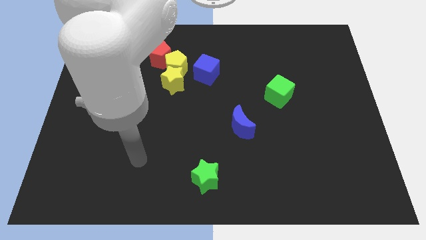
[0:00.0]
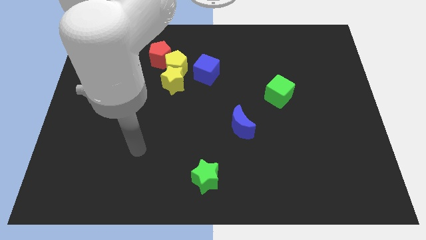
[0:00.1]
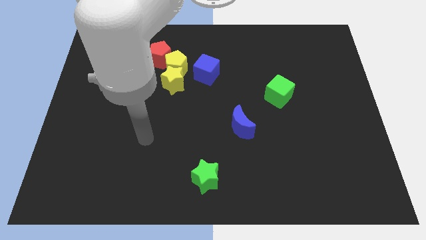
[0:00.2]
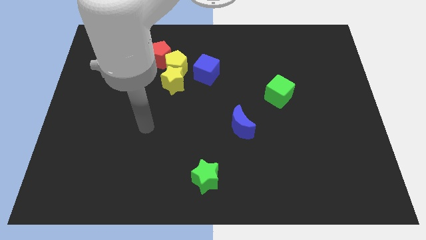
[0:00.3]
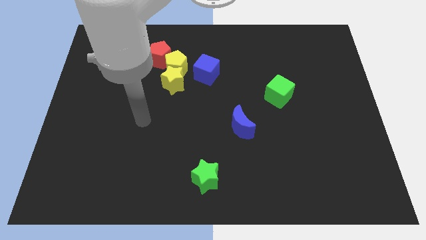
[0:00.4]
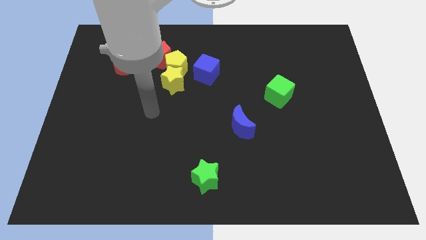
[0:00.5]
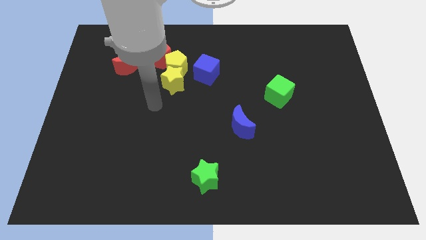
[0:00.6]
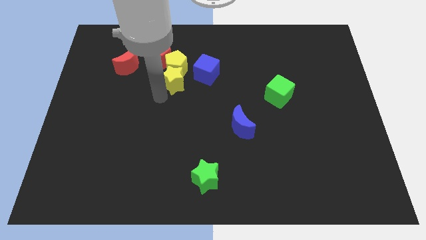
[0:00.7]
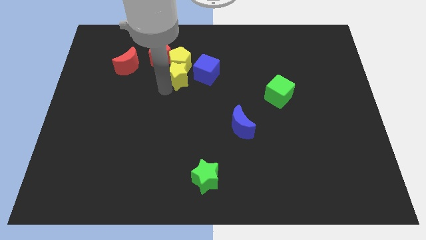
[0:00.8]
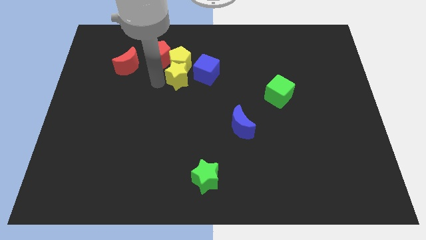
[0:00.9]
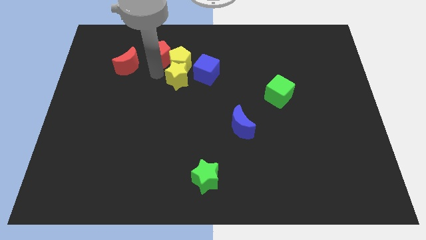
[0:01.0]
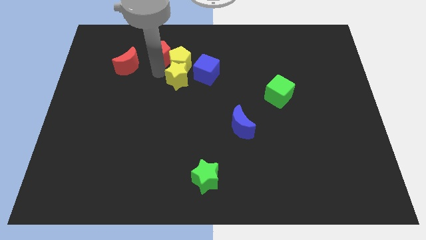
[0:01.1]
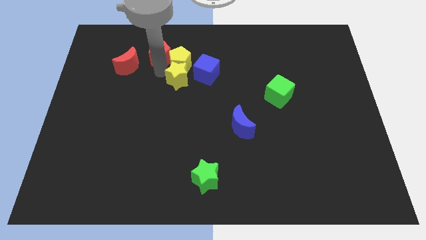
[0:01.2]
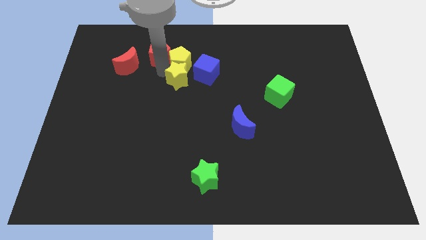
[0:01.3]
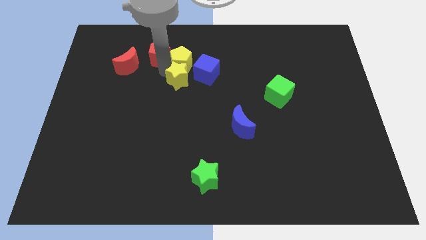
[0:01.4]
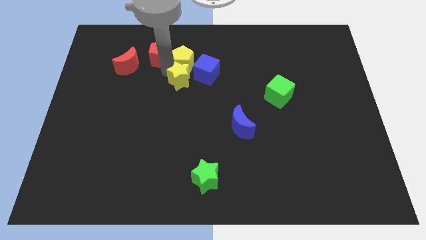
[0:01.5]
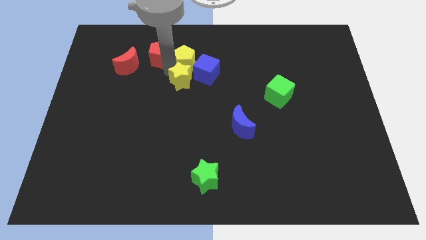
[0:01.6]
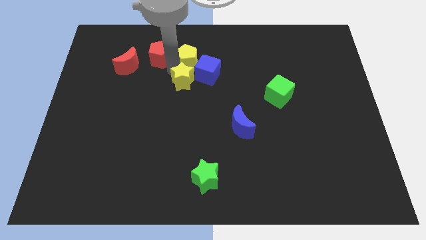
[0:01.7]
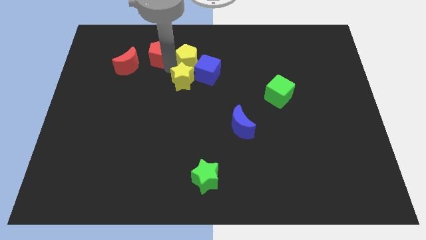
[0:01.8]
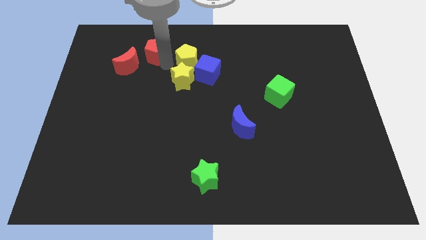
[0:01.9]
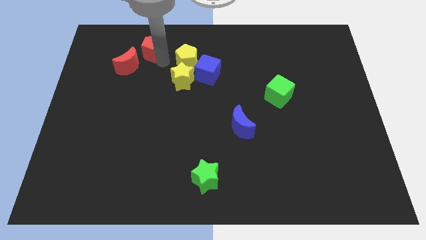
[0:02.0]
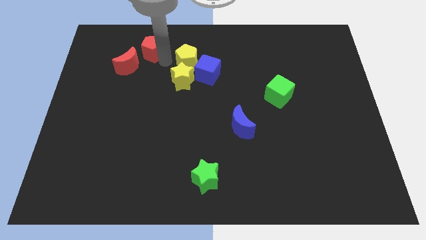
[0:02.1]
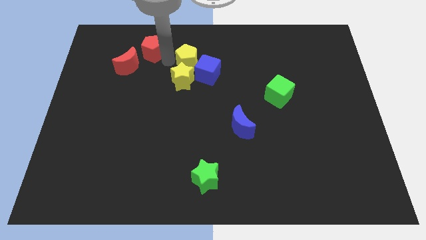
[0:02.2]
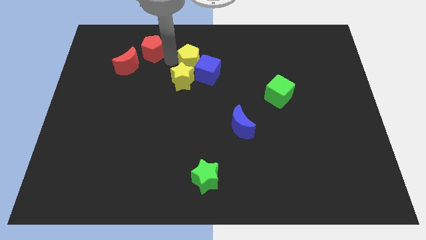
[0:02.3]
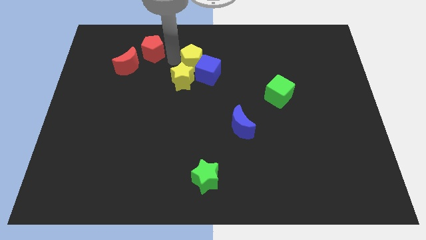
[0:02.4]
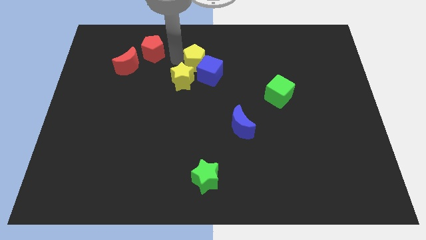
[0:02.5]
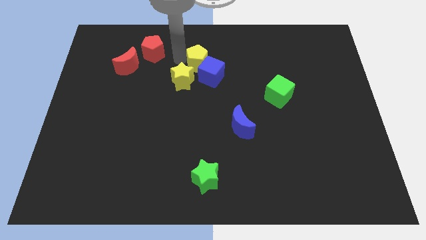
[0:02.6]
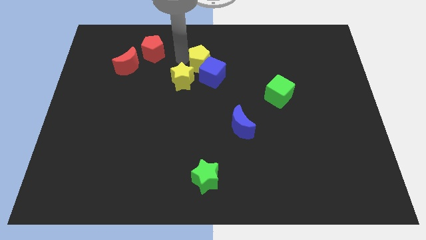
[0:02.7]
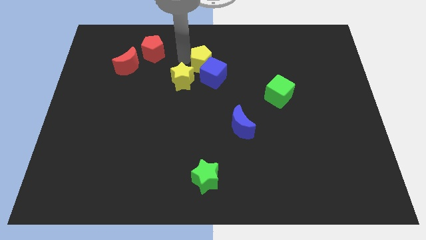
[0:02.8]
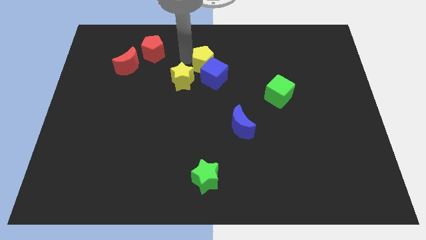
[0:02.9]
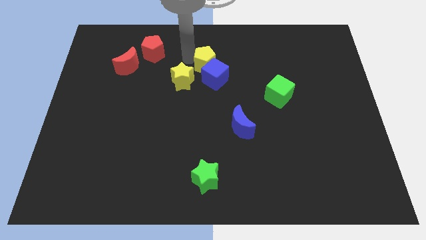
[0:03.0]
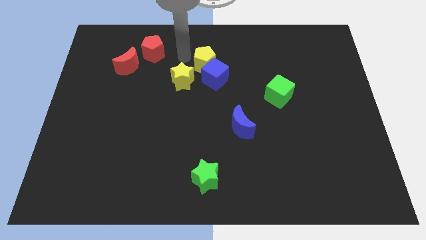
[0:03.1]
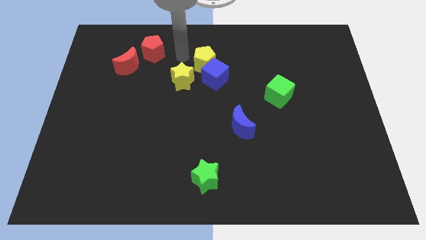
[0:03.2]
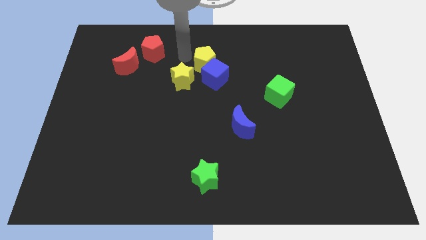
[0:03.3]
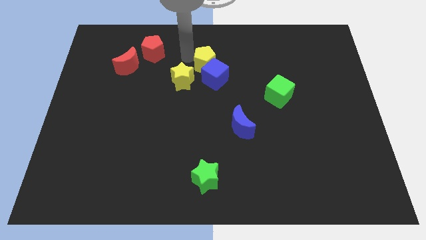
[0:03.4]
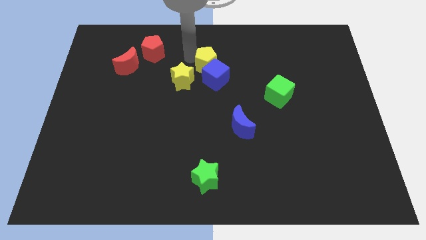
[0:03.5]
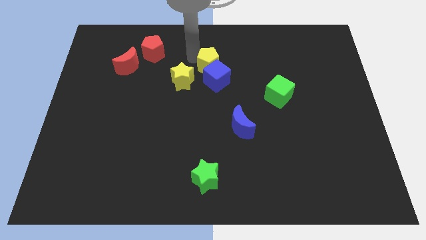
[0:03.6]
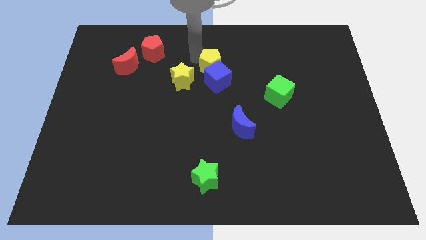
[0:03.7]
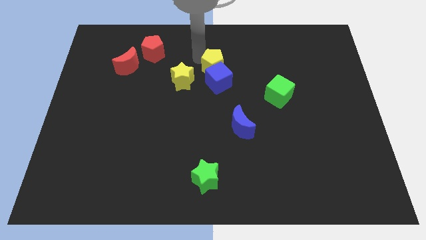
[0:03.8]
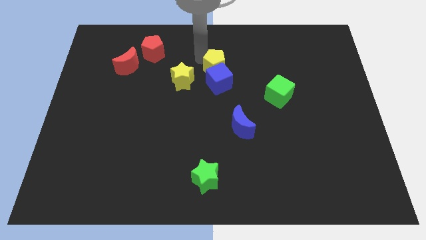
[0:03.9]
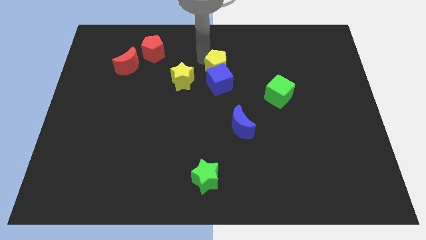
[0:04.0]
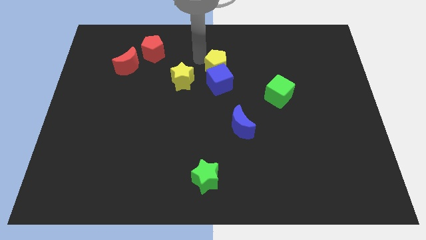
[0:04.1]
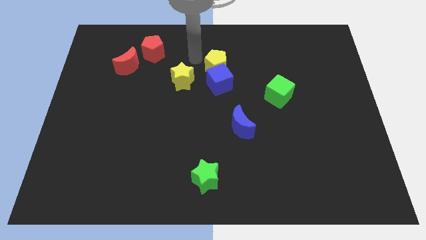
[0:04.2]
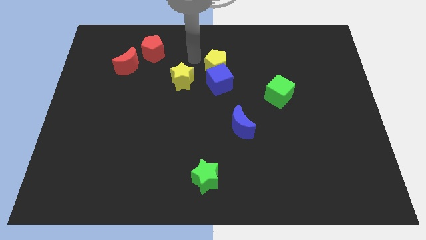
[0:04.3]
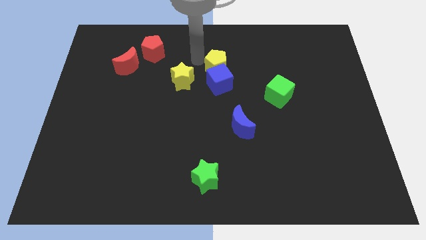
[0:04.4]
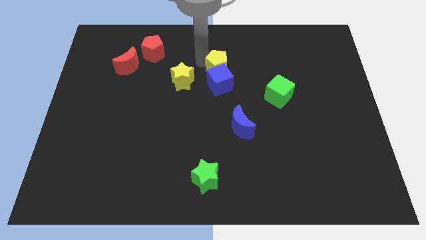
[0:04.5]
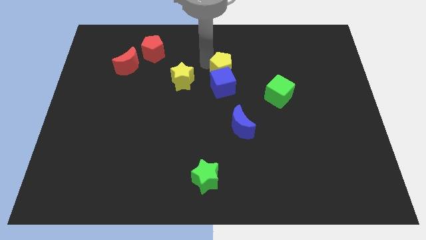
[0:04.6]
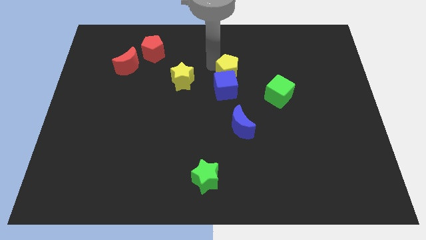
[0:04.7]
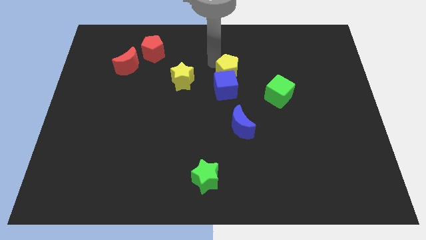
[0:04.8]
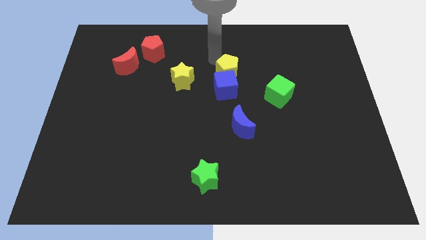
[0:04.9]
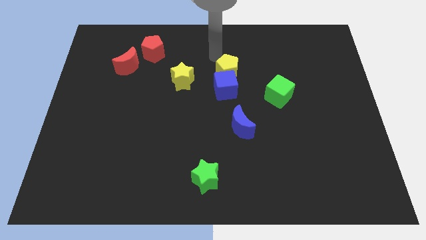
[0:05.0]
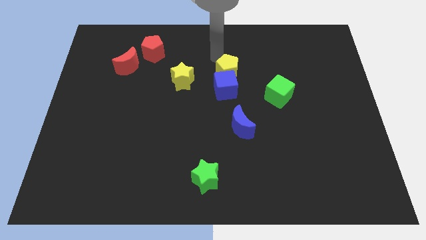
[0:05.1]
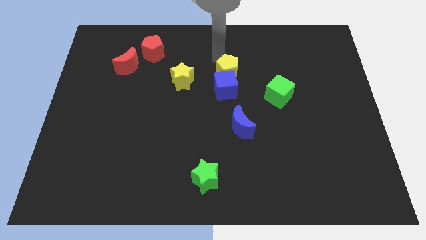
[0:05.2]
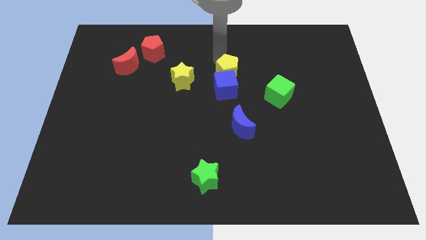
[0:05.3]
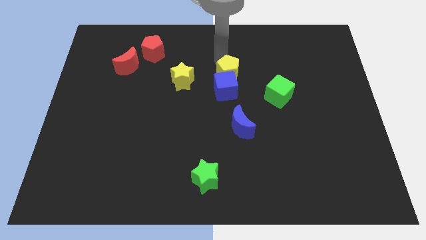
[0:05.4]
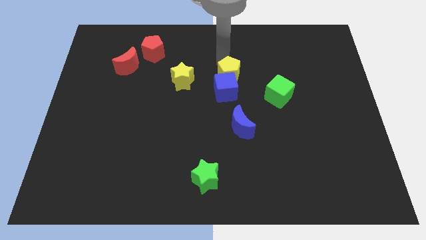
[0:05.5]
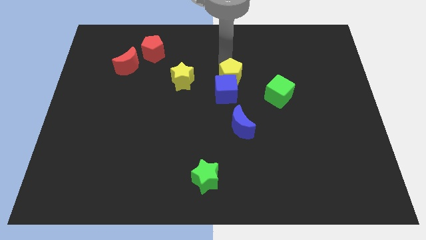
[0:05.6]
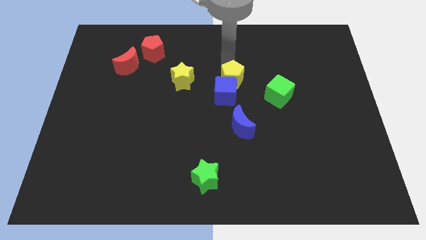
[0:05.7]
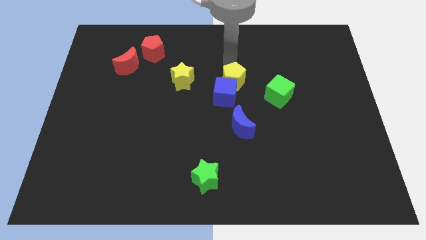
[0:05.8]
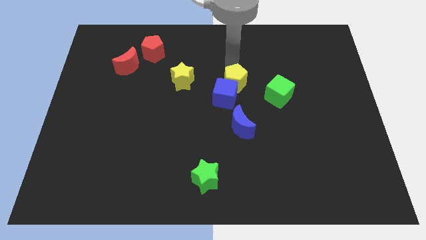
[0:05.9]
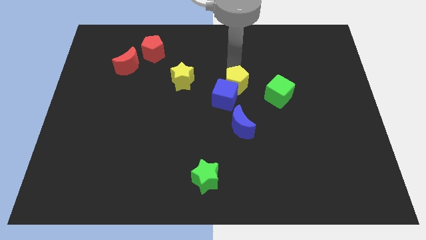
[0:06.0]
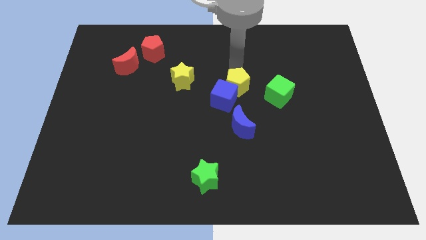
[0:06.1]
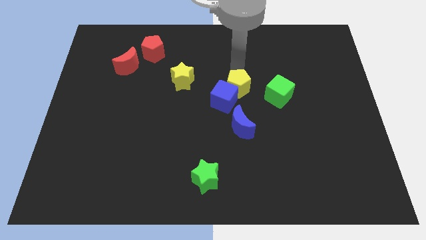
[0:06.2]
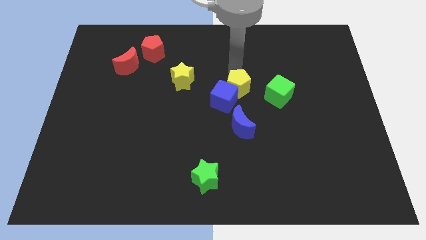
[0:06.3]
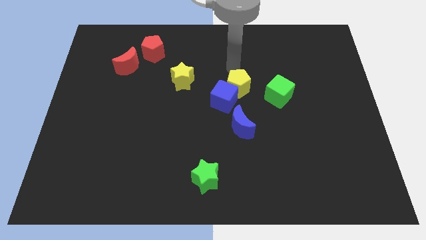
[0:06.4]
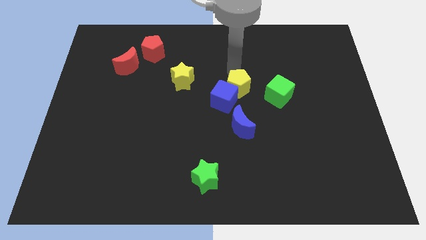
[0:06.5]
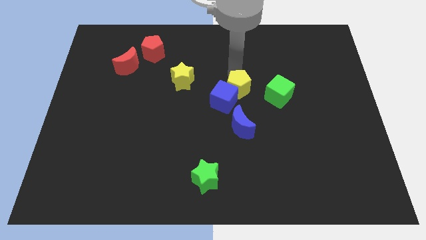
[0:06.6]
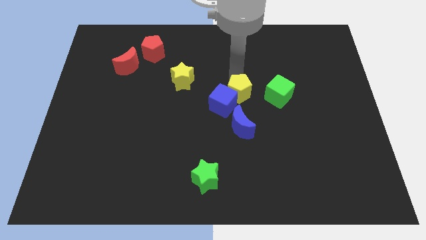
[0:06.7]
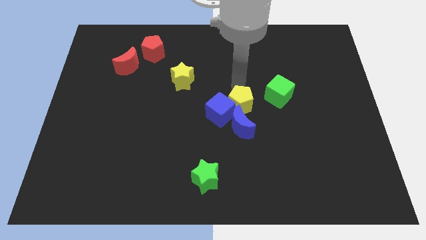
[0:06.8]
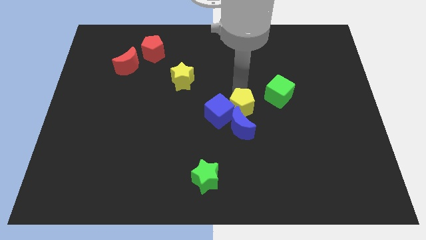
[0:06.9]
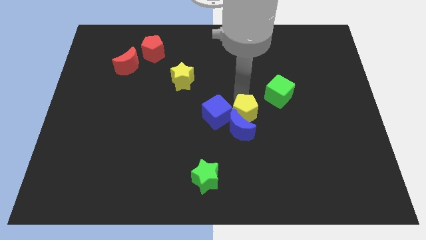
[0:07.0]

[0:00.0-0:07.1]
put the yellow pentagon next to the blue moon

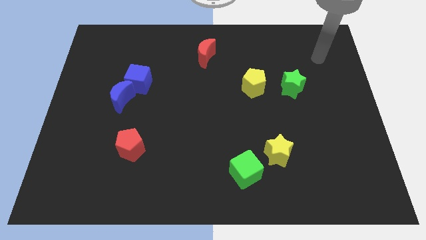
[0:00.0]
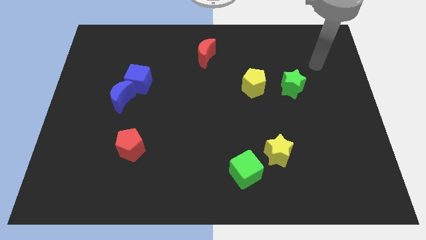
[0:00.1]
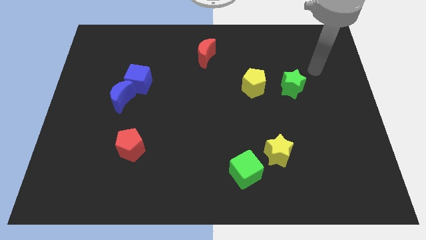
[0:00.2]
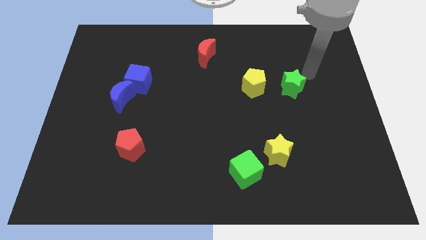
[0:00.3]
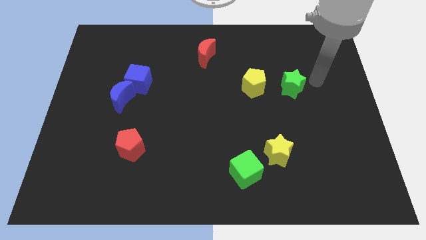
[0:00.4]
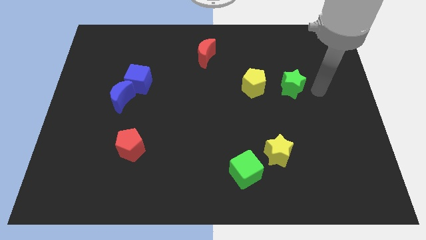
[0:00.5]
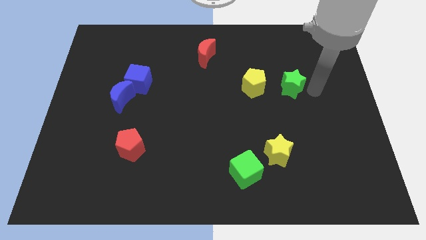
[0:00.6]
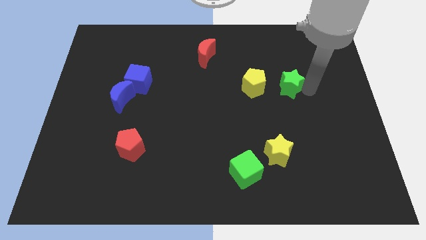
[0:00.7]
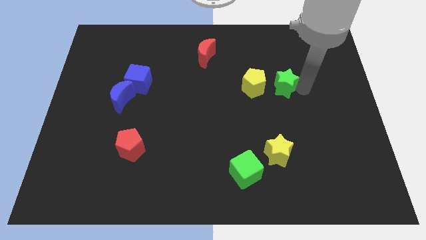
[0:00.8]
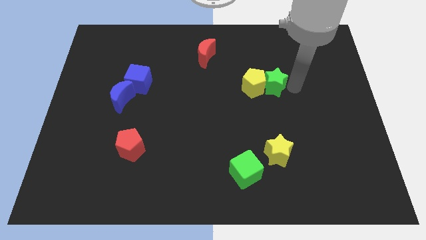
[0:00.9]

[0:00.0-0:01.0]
put the green star to the yellow pentagon
